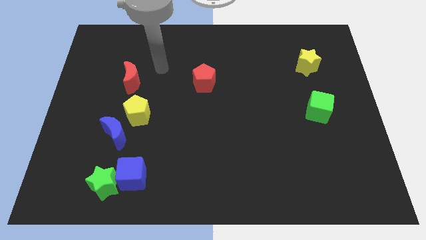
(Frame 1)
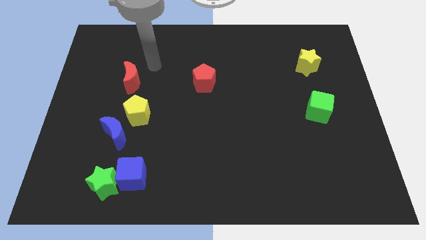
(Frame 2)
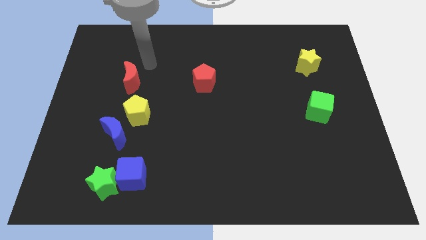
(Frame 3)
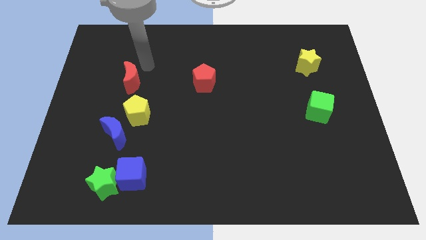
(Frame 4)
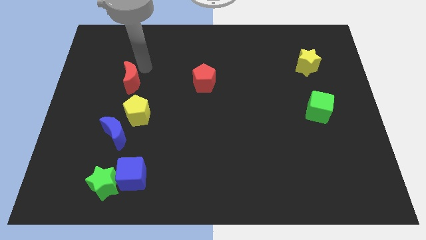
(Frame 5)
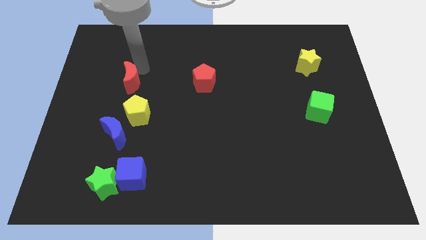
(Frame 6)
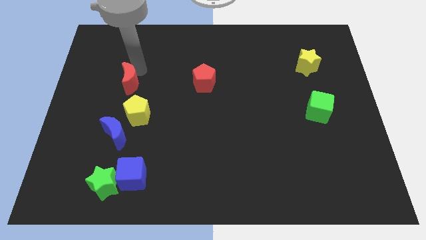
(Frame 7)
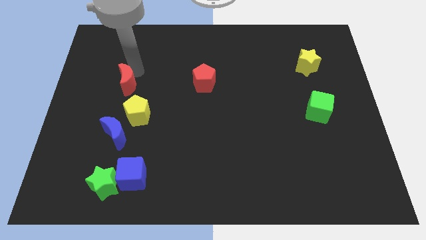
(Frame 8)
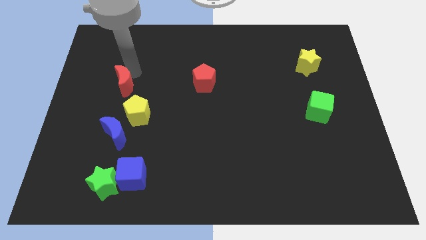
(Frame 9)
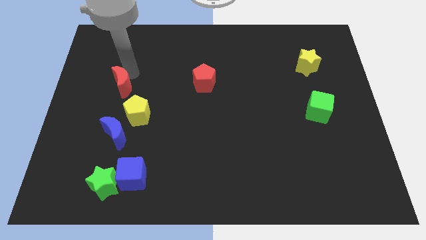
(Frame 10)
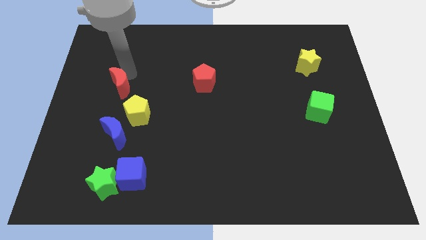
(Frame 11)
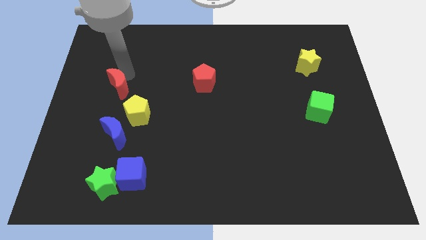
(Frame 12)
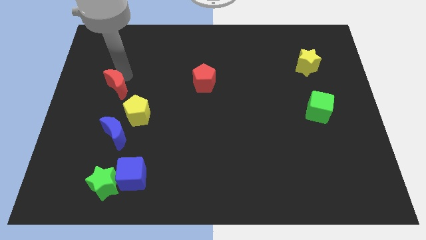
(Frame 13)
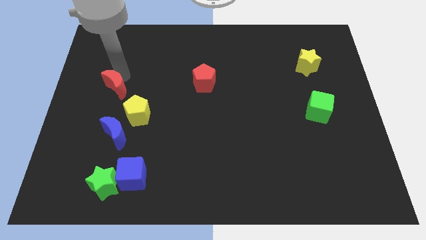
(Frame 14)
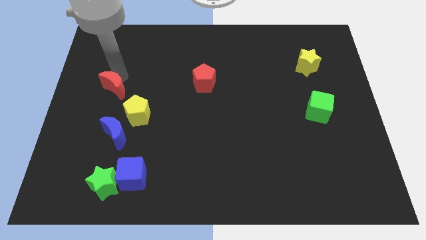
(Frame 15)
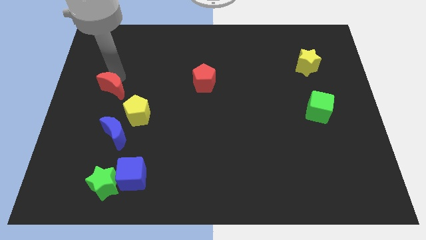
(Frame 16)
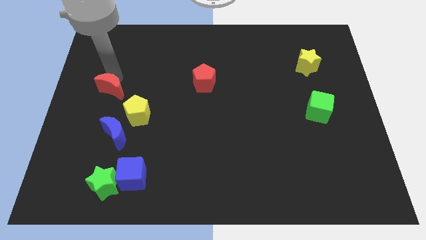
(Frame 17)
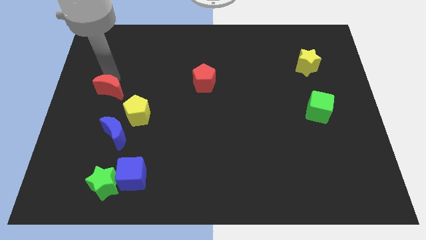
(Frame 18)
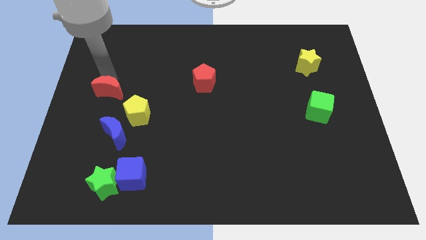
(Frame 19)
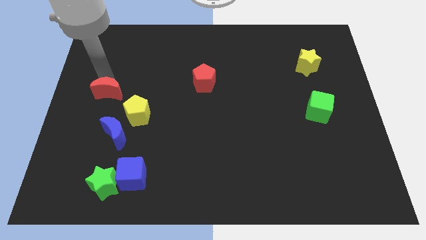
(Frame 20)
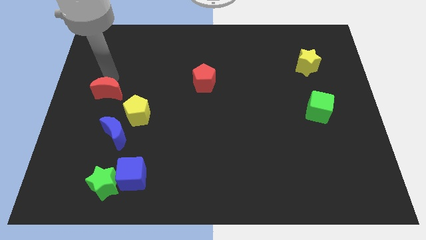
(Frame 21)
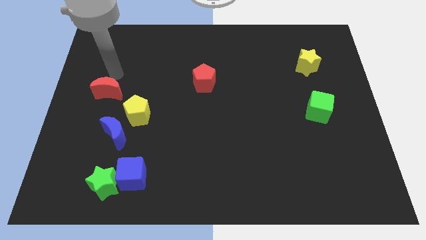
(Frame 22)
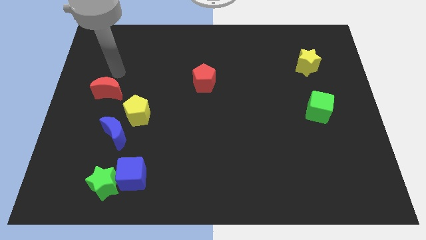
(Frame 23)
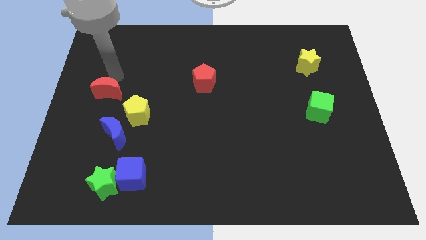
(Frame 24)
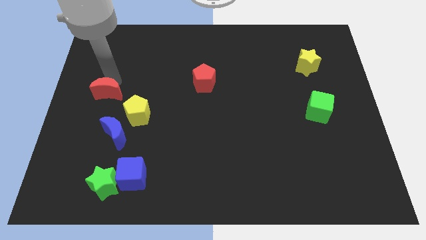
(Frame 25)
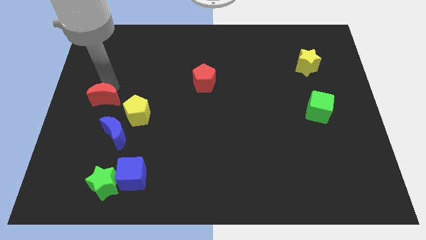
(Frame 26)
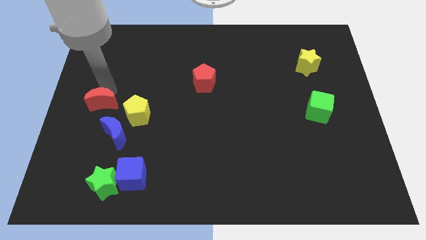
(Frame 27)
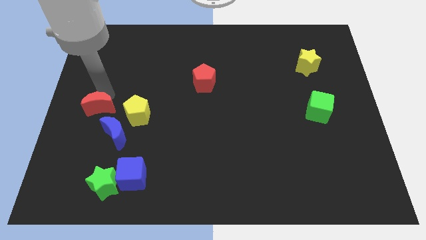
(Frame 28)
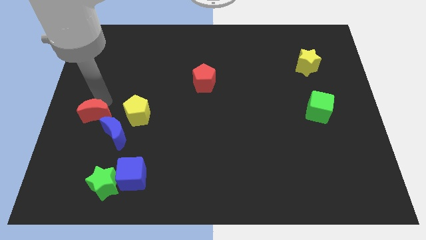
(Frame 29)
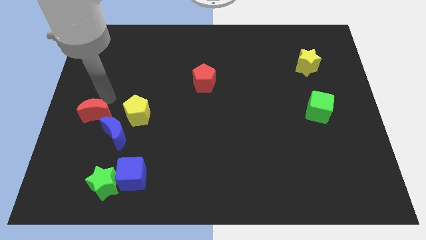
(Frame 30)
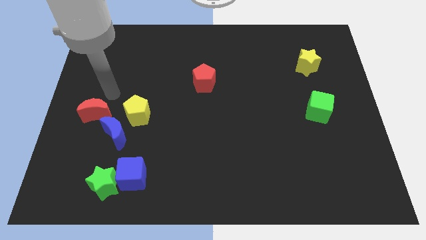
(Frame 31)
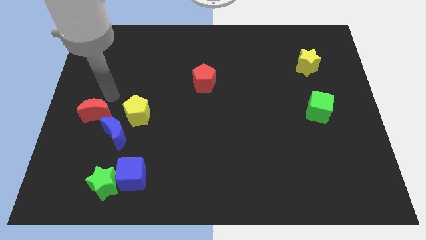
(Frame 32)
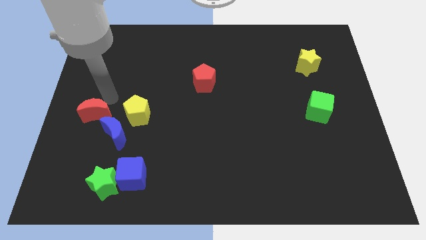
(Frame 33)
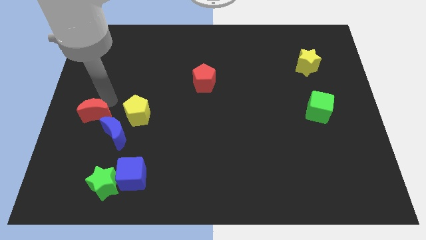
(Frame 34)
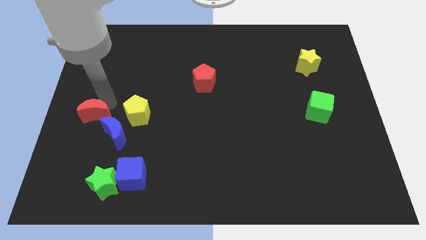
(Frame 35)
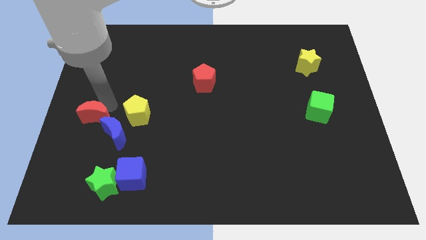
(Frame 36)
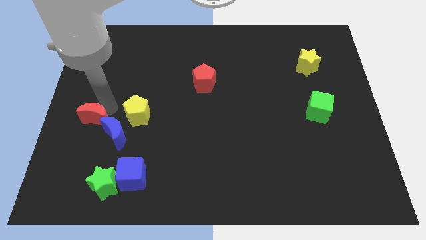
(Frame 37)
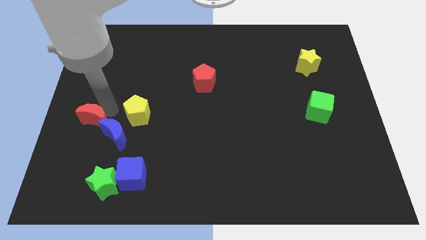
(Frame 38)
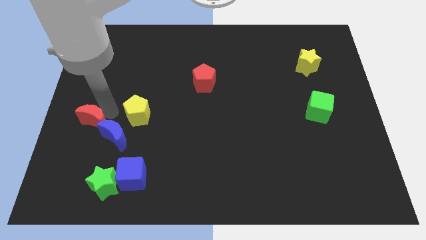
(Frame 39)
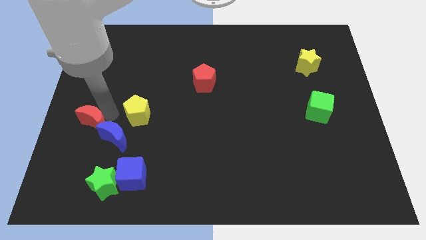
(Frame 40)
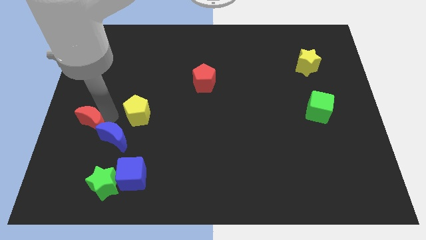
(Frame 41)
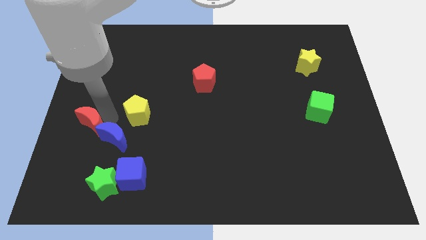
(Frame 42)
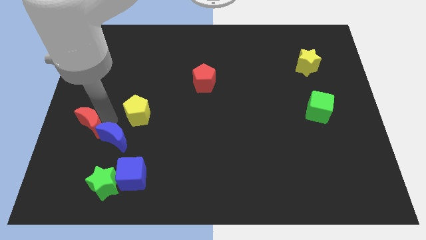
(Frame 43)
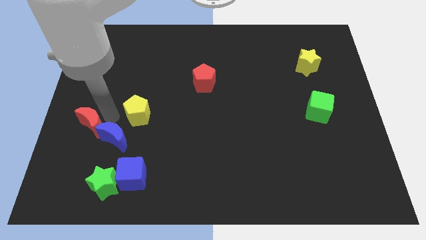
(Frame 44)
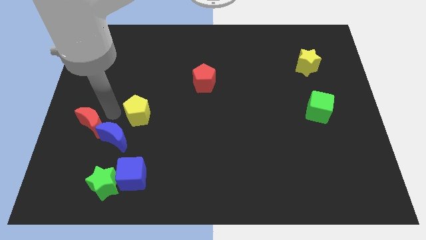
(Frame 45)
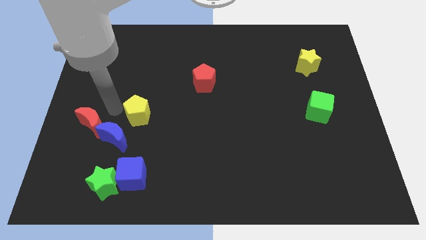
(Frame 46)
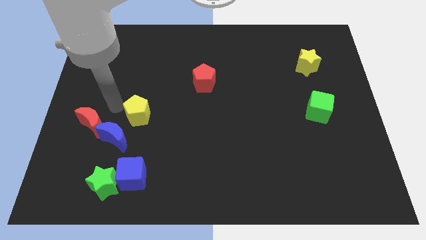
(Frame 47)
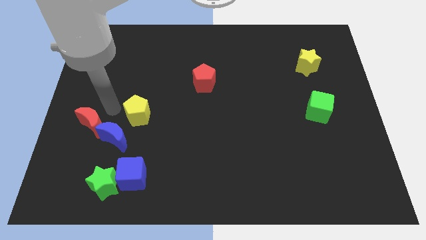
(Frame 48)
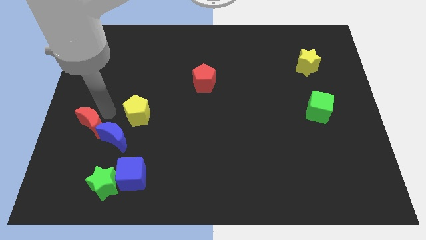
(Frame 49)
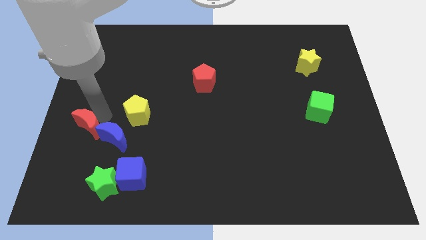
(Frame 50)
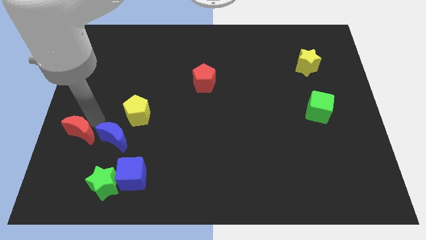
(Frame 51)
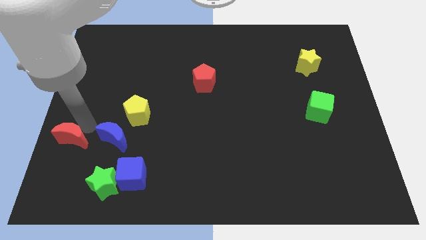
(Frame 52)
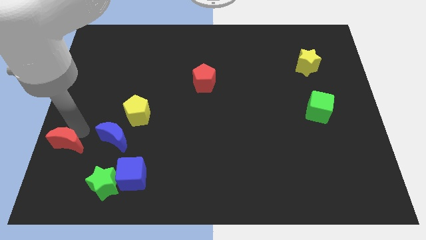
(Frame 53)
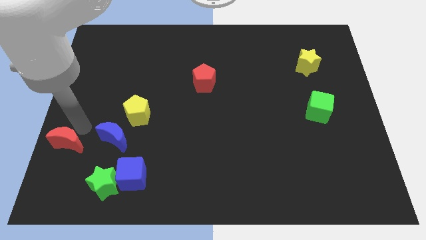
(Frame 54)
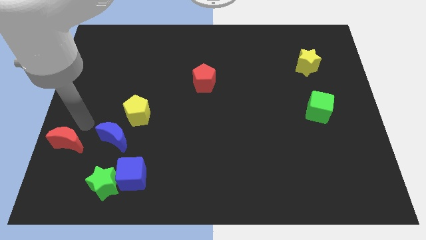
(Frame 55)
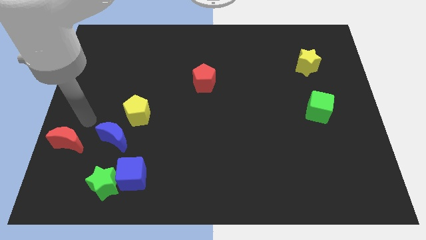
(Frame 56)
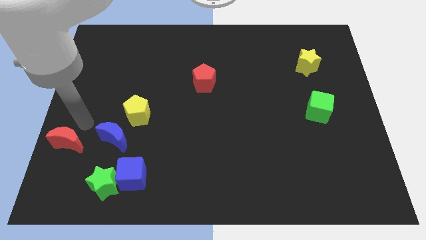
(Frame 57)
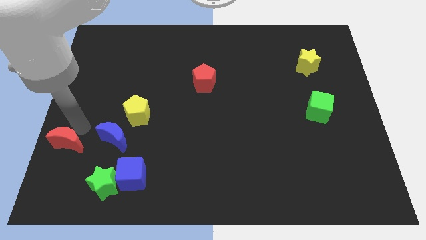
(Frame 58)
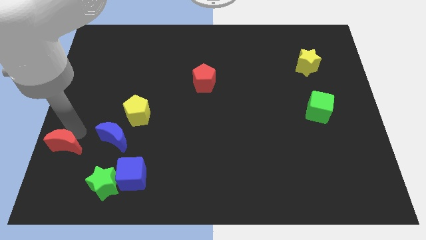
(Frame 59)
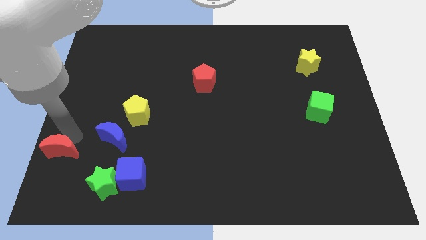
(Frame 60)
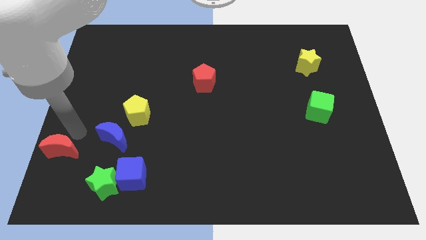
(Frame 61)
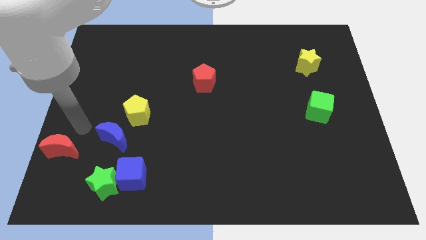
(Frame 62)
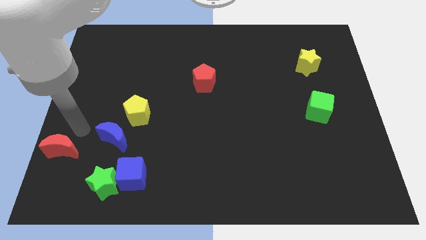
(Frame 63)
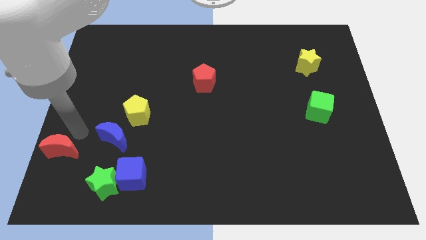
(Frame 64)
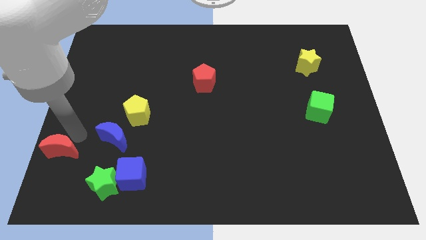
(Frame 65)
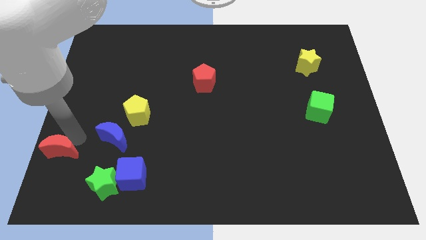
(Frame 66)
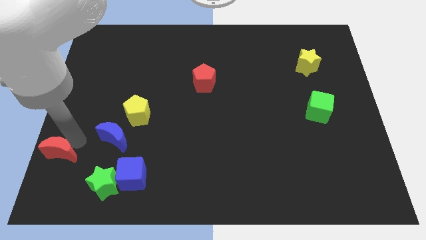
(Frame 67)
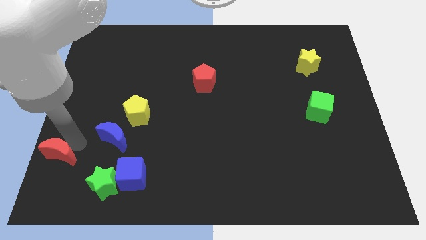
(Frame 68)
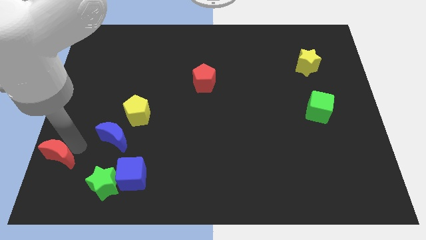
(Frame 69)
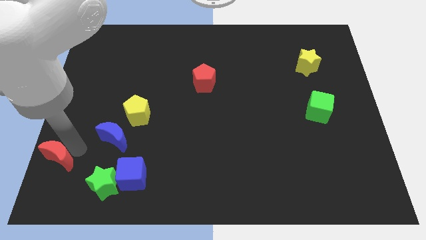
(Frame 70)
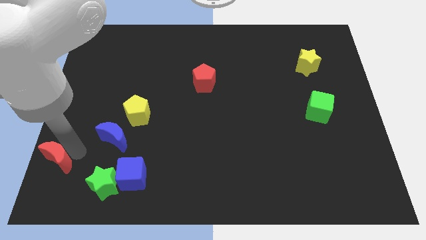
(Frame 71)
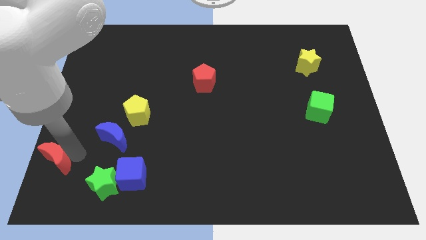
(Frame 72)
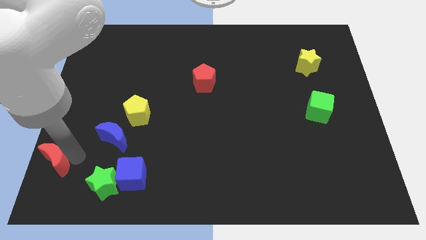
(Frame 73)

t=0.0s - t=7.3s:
push the red moon to the bottom left

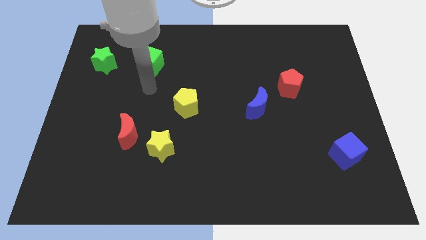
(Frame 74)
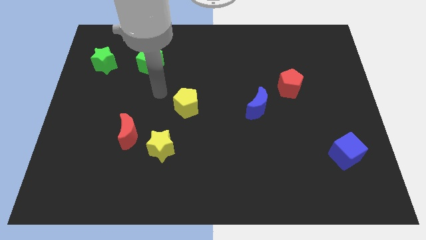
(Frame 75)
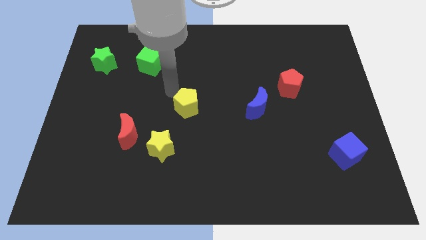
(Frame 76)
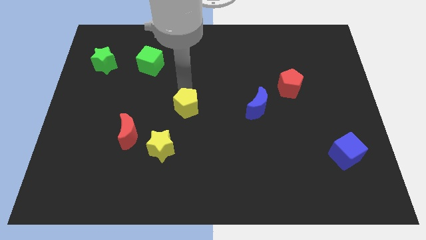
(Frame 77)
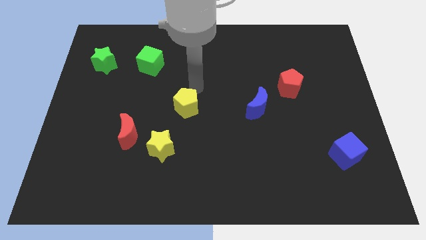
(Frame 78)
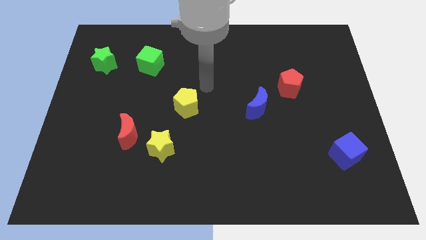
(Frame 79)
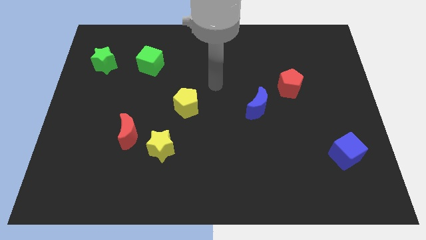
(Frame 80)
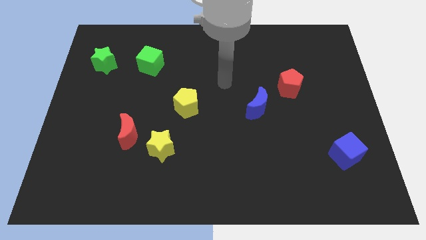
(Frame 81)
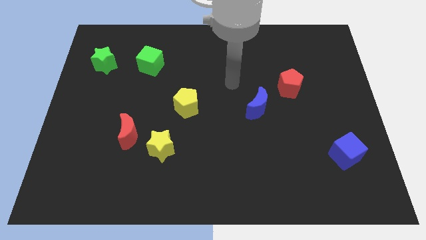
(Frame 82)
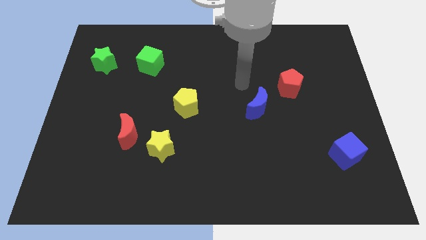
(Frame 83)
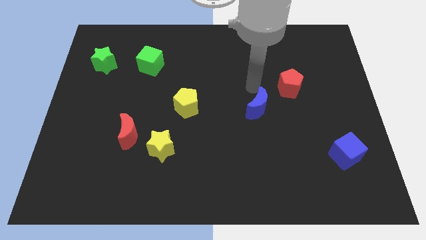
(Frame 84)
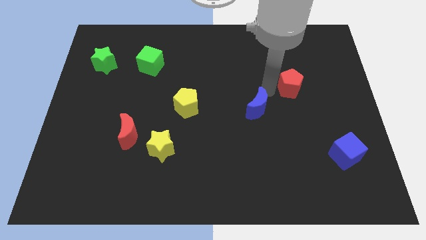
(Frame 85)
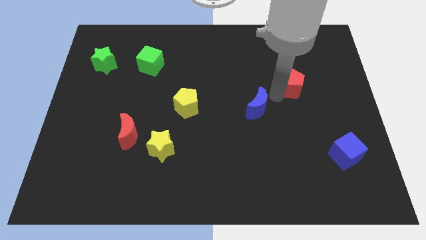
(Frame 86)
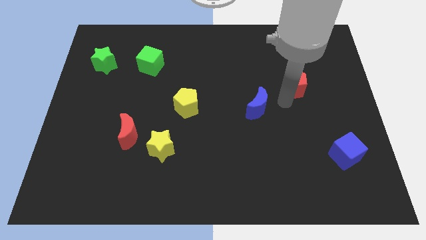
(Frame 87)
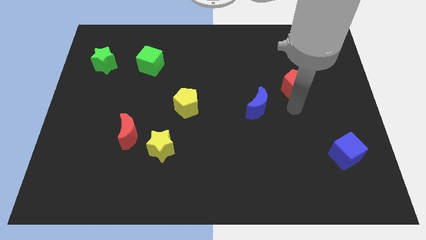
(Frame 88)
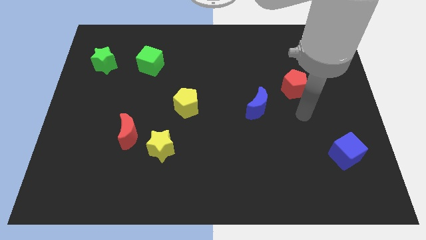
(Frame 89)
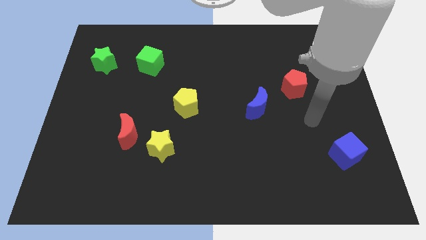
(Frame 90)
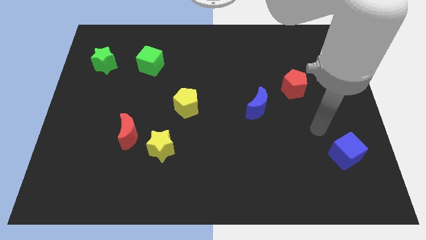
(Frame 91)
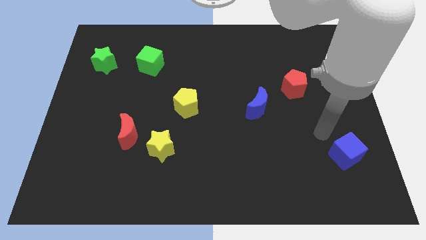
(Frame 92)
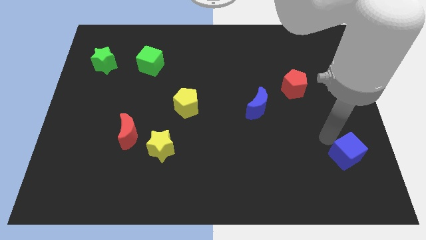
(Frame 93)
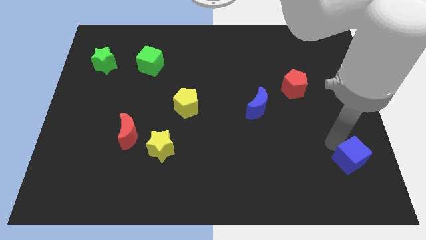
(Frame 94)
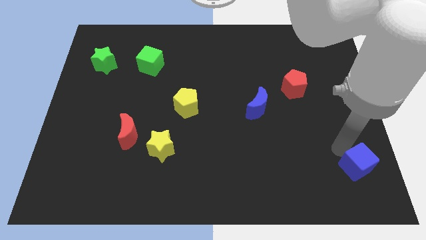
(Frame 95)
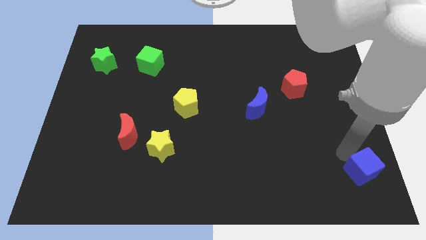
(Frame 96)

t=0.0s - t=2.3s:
slide the blue cube to the bottom right
